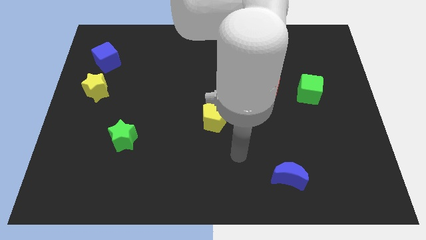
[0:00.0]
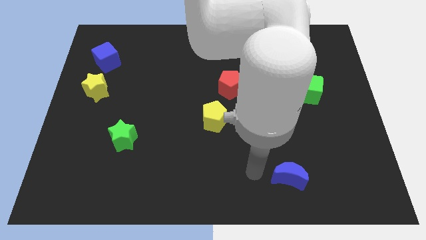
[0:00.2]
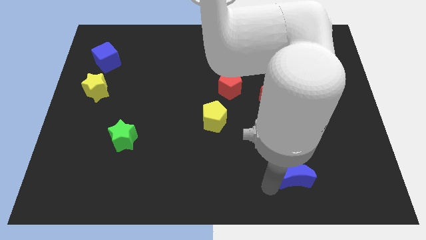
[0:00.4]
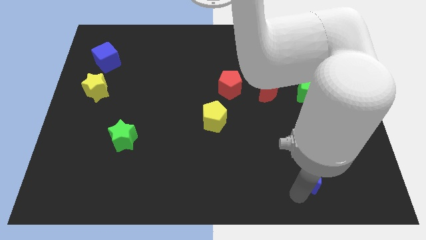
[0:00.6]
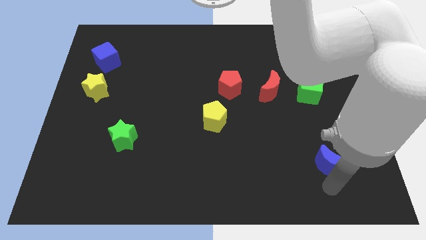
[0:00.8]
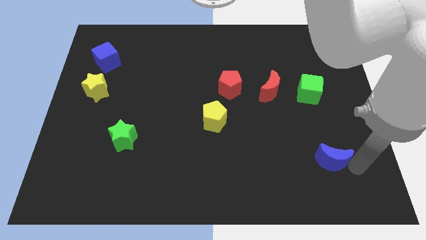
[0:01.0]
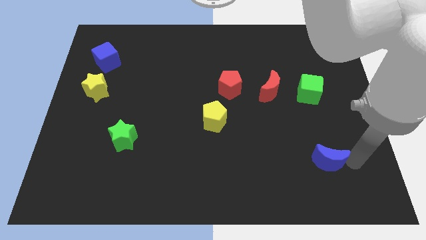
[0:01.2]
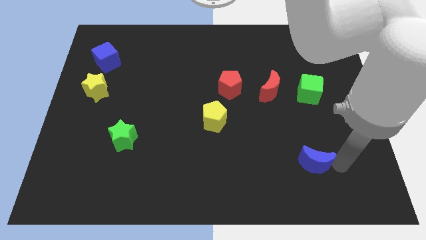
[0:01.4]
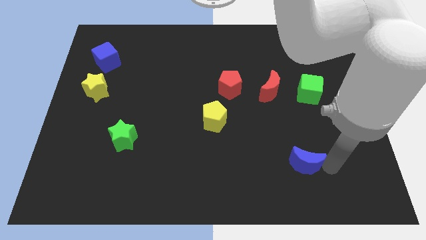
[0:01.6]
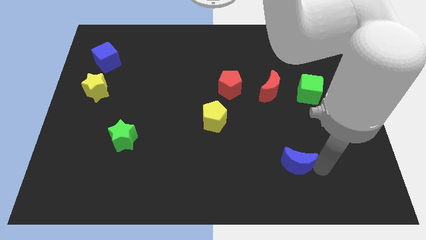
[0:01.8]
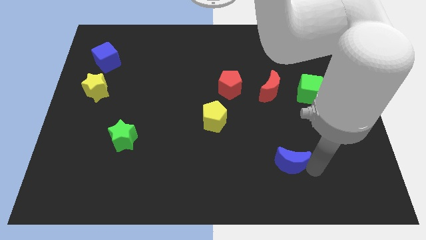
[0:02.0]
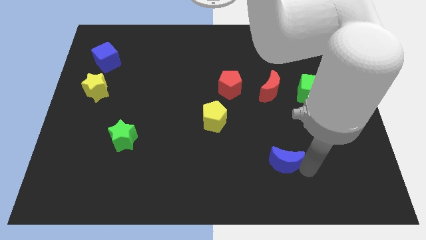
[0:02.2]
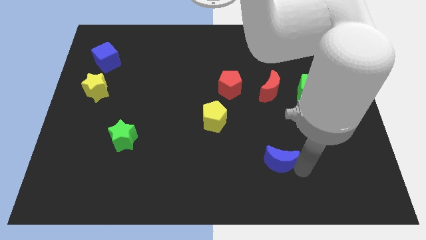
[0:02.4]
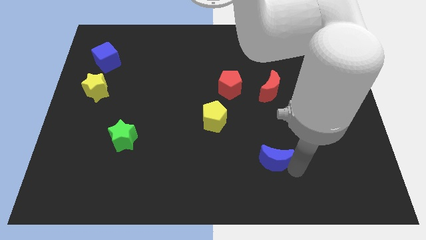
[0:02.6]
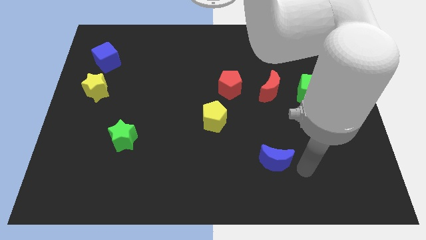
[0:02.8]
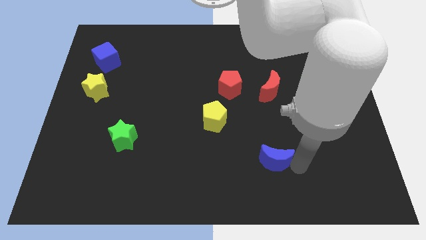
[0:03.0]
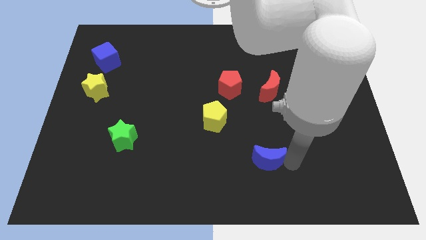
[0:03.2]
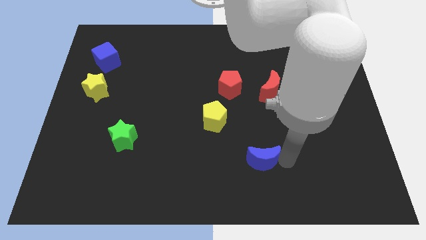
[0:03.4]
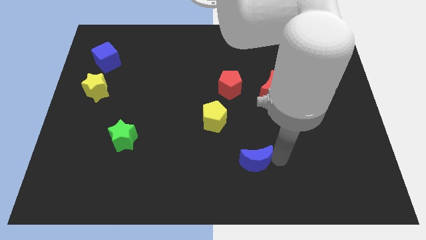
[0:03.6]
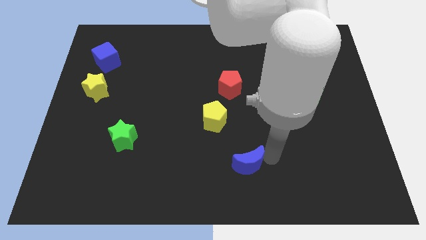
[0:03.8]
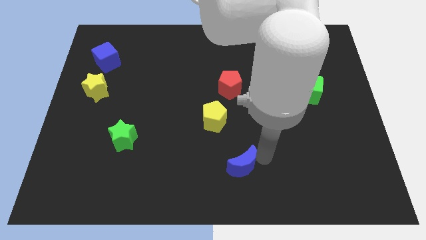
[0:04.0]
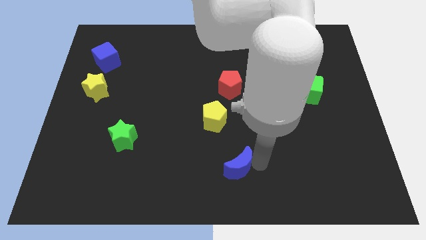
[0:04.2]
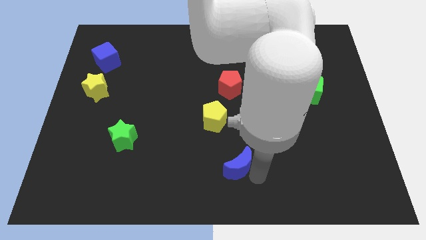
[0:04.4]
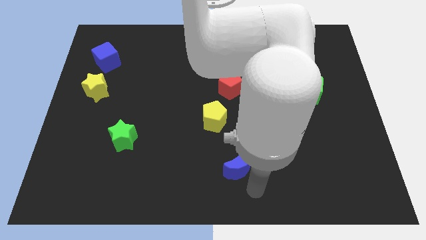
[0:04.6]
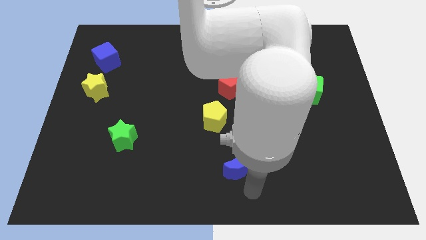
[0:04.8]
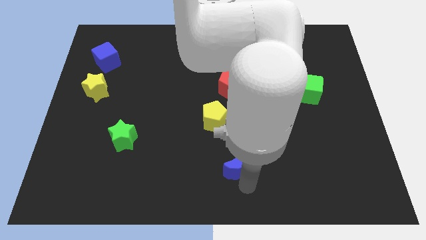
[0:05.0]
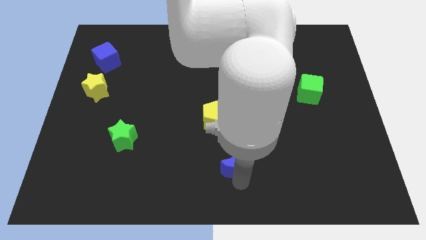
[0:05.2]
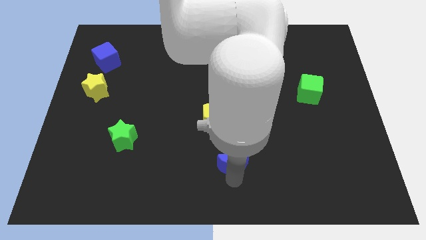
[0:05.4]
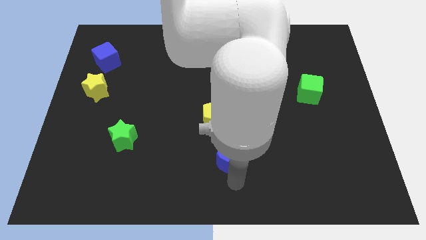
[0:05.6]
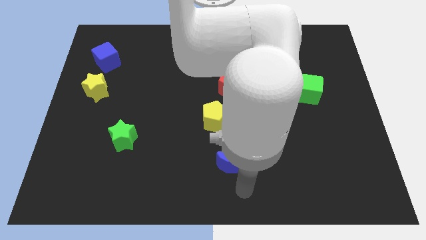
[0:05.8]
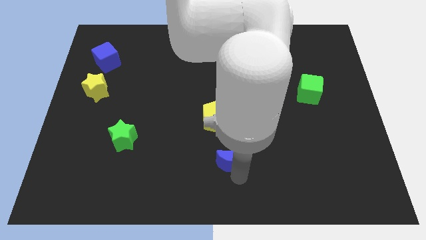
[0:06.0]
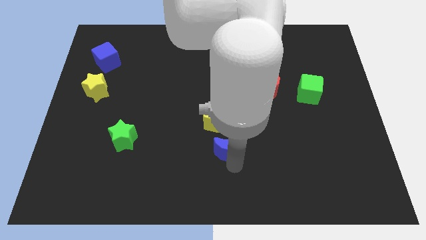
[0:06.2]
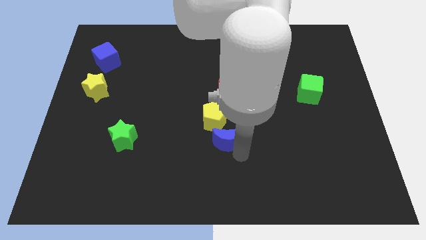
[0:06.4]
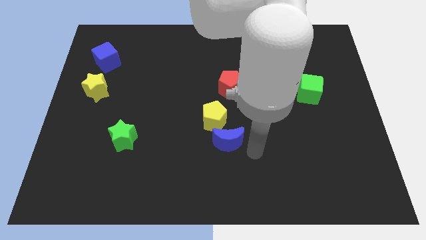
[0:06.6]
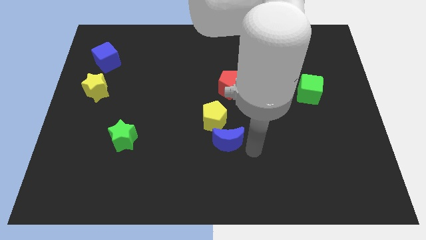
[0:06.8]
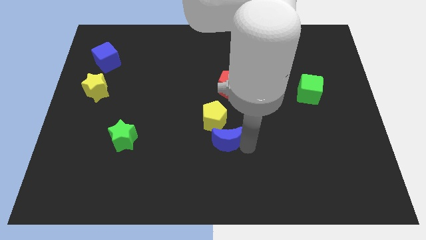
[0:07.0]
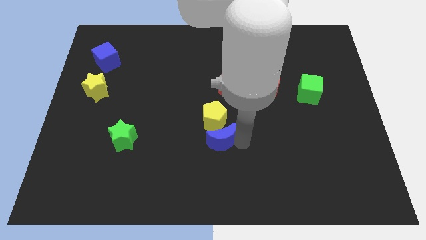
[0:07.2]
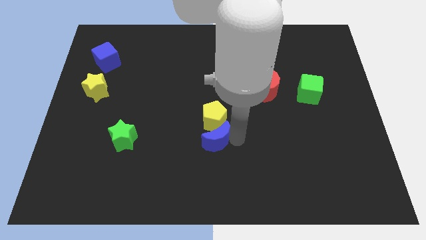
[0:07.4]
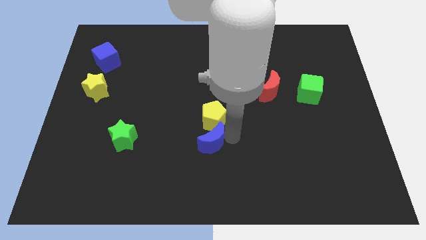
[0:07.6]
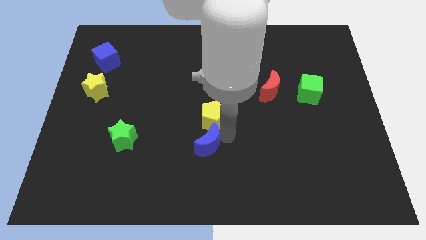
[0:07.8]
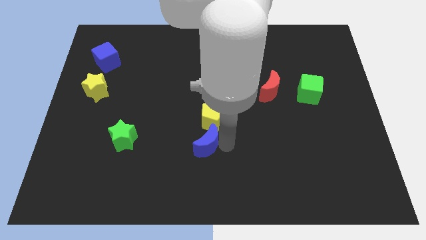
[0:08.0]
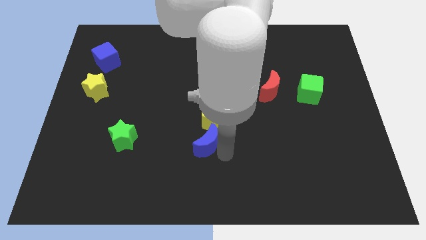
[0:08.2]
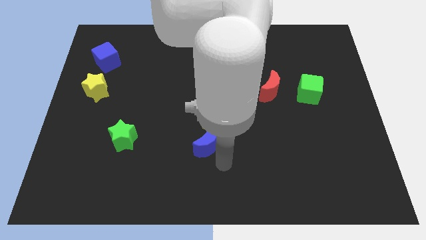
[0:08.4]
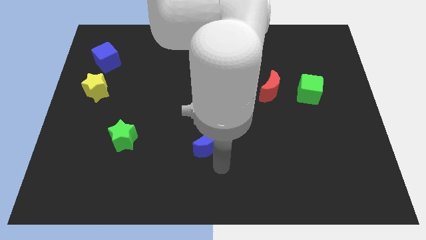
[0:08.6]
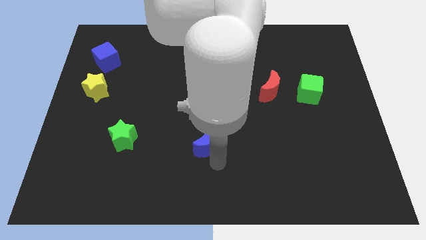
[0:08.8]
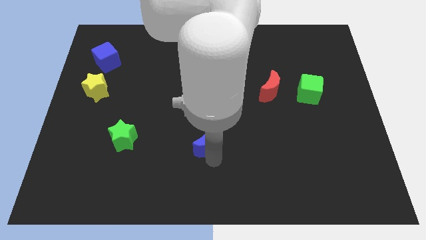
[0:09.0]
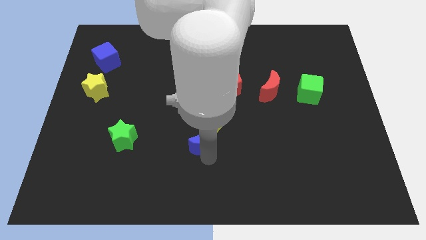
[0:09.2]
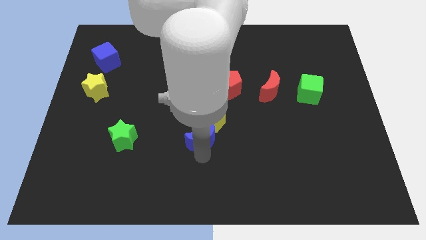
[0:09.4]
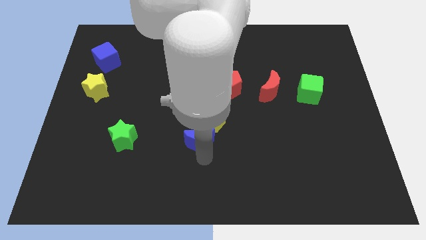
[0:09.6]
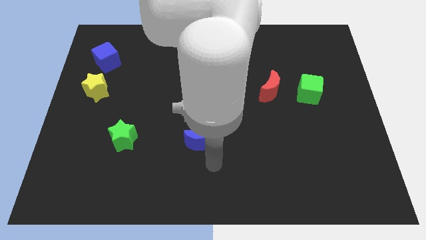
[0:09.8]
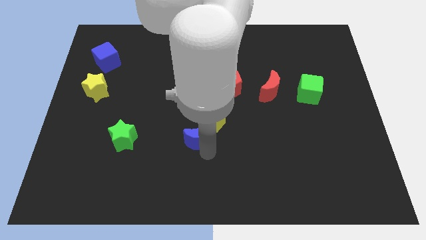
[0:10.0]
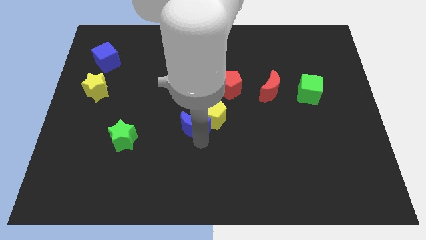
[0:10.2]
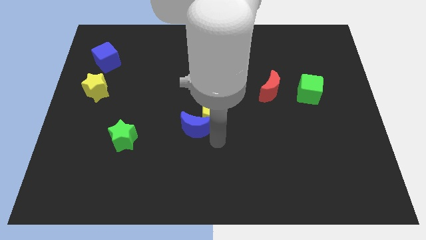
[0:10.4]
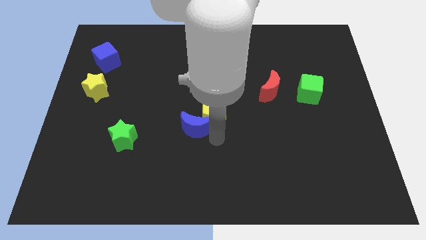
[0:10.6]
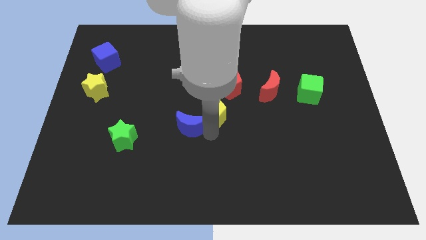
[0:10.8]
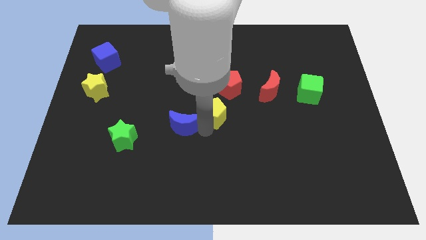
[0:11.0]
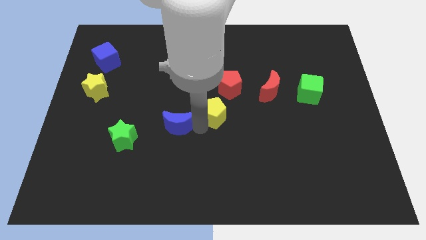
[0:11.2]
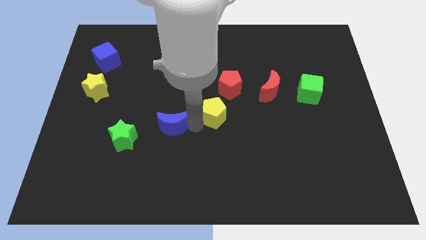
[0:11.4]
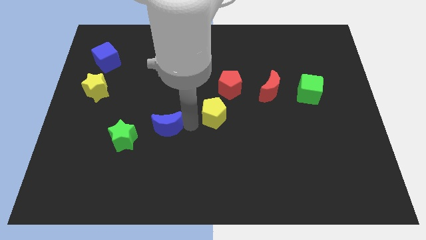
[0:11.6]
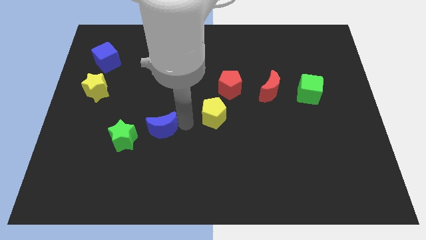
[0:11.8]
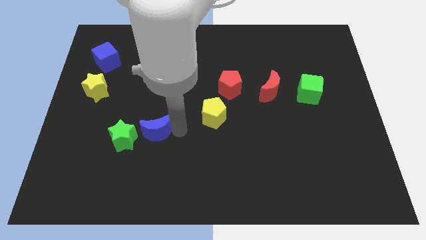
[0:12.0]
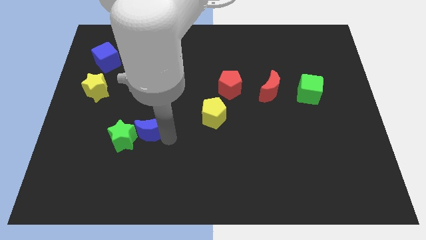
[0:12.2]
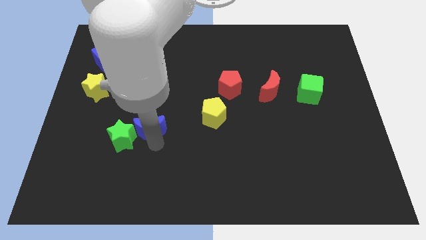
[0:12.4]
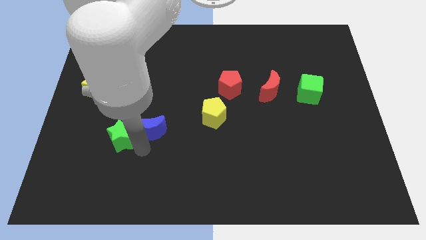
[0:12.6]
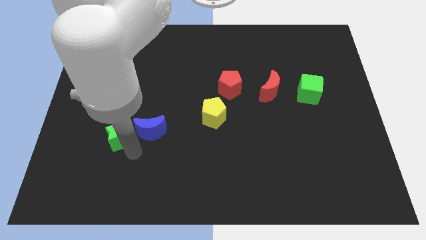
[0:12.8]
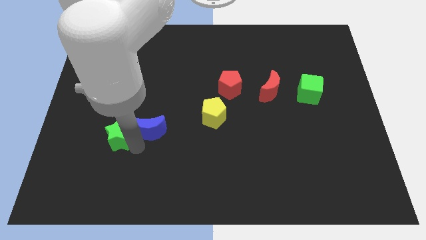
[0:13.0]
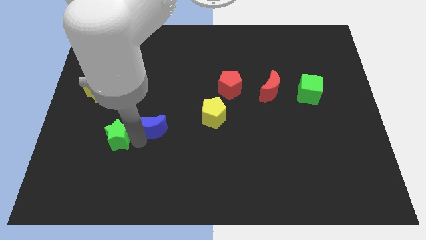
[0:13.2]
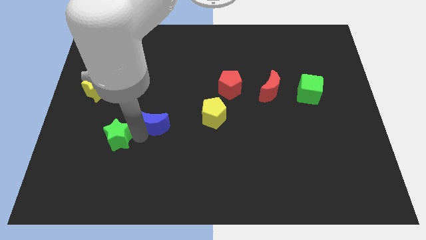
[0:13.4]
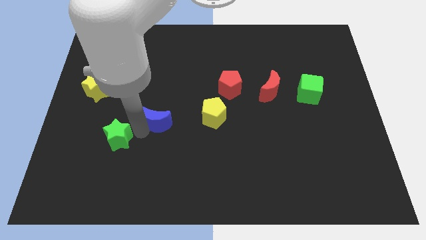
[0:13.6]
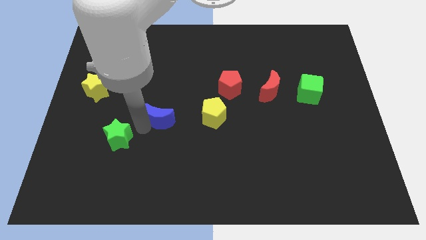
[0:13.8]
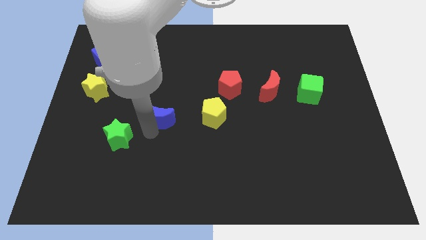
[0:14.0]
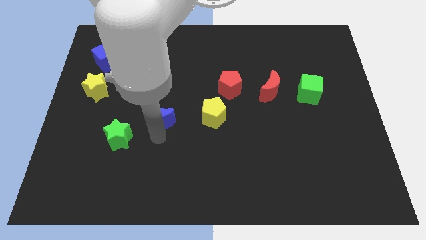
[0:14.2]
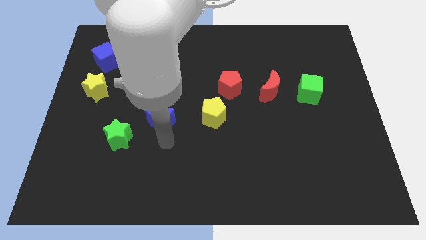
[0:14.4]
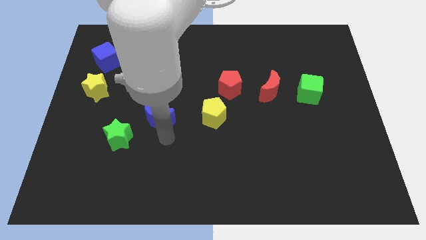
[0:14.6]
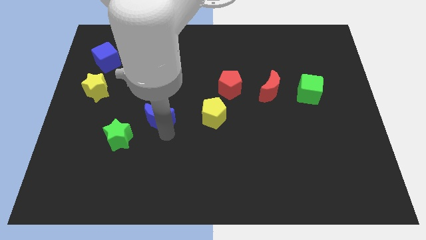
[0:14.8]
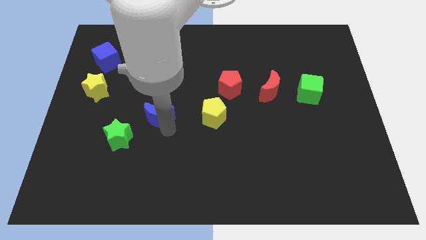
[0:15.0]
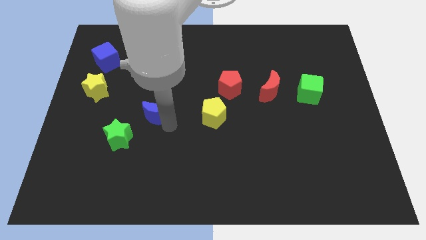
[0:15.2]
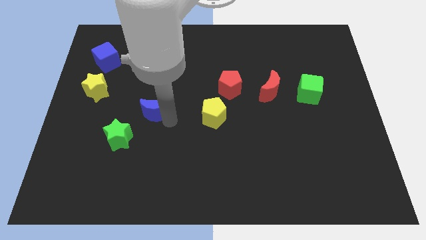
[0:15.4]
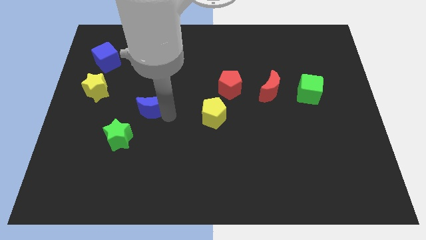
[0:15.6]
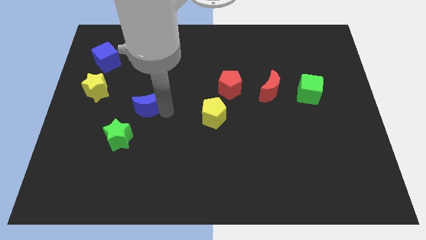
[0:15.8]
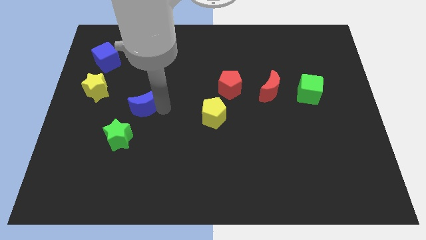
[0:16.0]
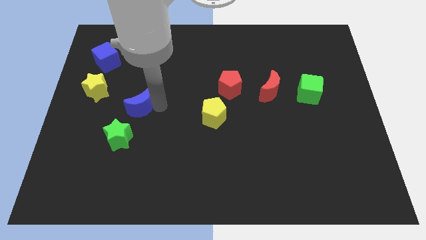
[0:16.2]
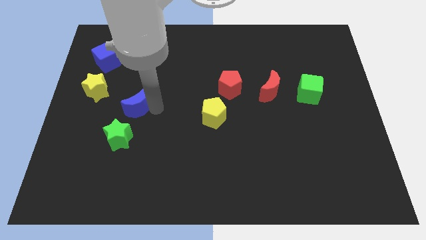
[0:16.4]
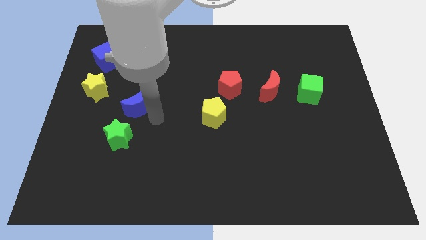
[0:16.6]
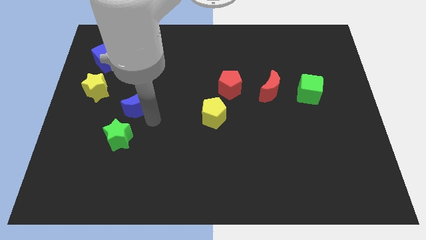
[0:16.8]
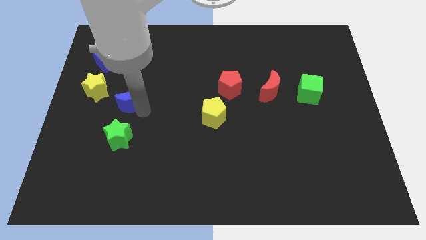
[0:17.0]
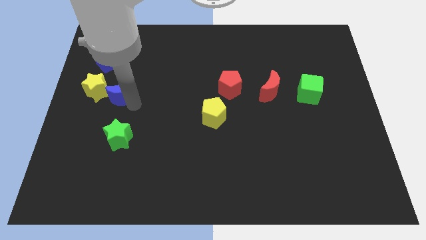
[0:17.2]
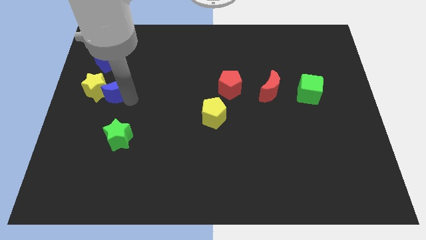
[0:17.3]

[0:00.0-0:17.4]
push the blue moon next to the yellow star
